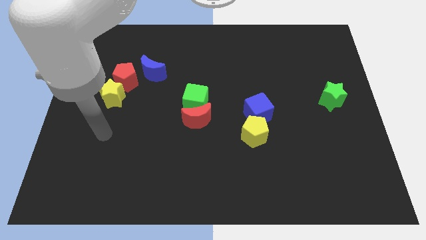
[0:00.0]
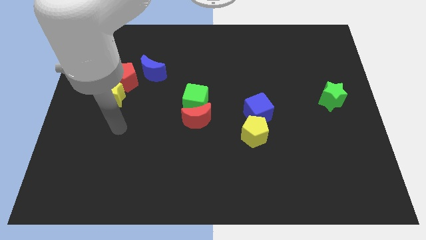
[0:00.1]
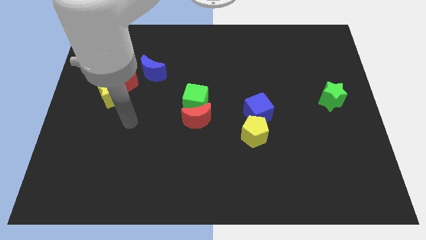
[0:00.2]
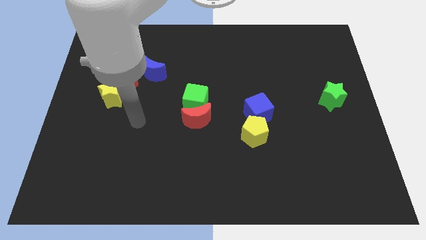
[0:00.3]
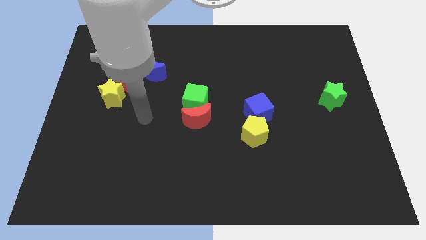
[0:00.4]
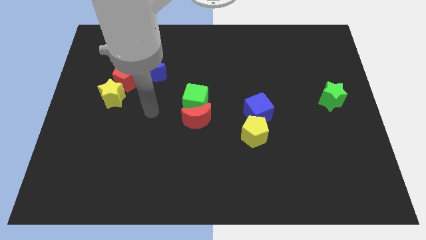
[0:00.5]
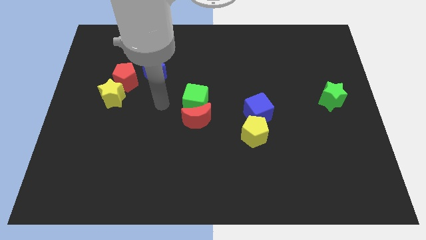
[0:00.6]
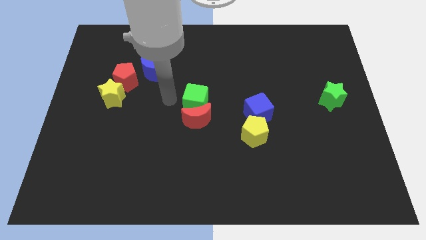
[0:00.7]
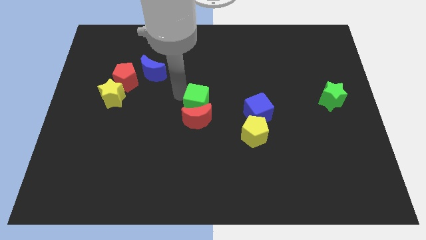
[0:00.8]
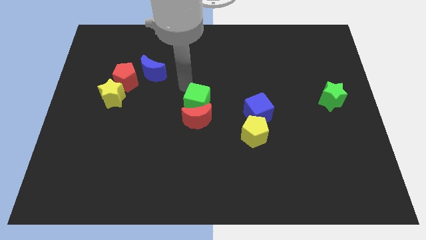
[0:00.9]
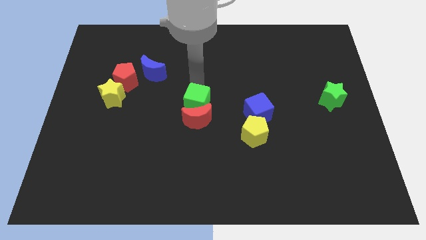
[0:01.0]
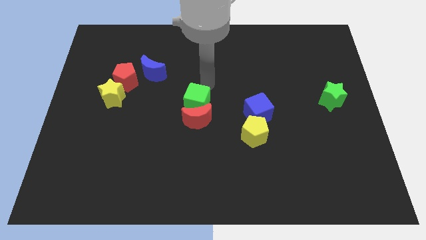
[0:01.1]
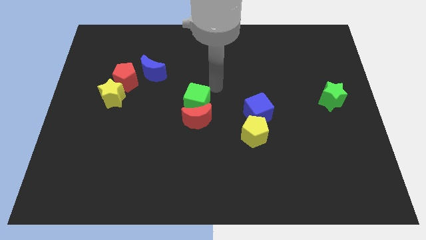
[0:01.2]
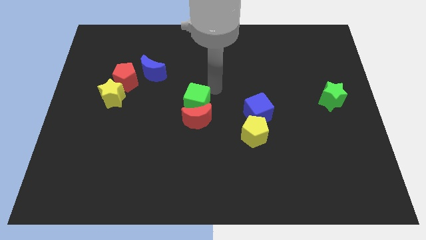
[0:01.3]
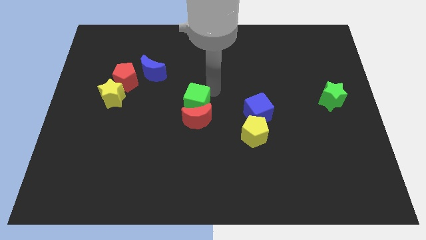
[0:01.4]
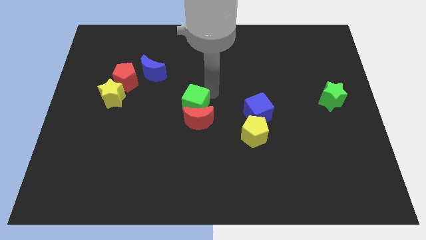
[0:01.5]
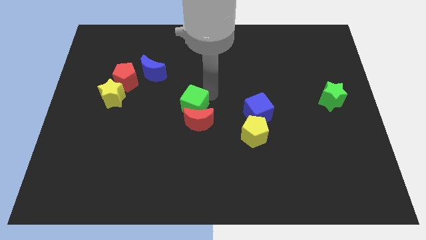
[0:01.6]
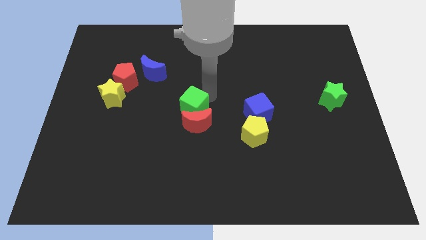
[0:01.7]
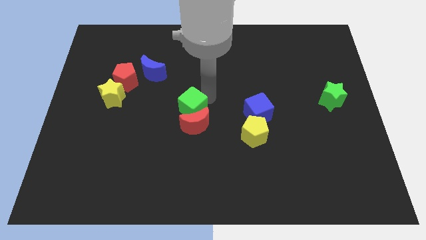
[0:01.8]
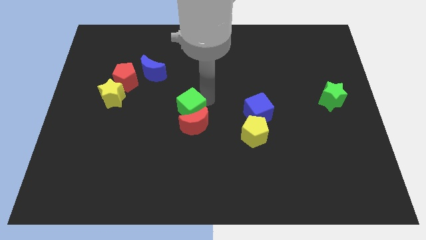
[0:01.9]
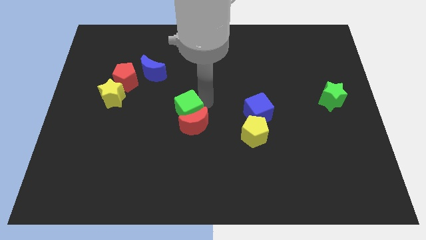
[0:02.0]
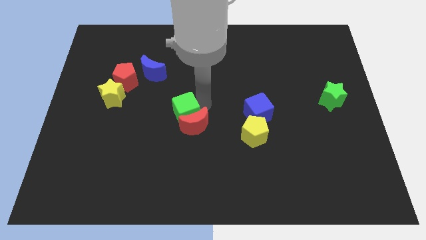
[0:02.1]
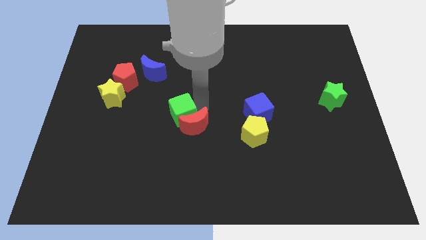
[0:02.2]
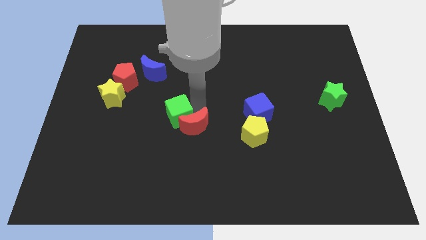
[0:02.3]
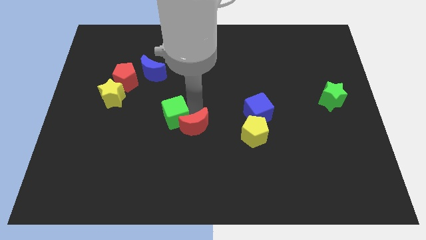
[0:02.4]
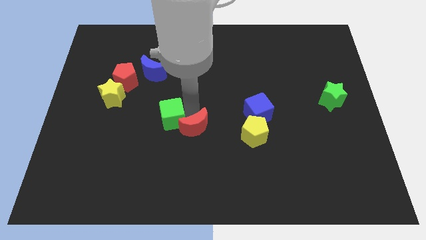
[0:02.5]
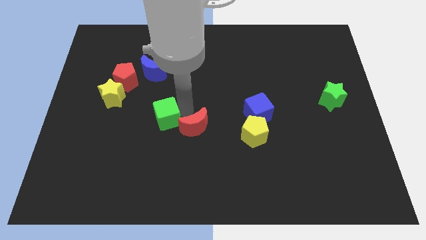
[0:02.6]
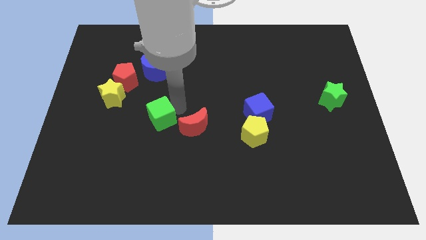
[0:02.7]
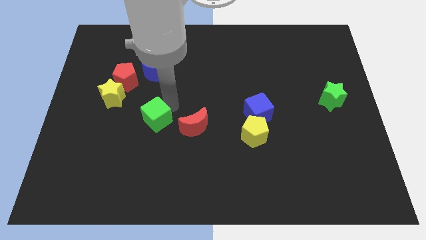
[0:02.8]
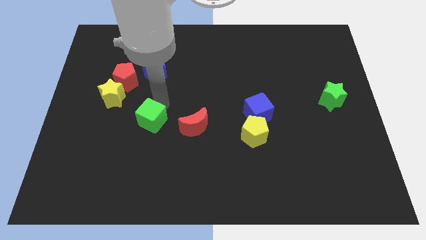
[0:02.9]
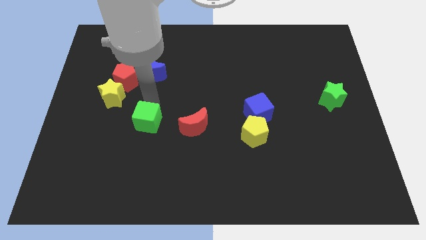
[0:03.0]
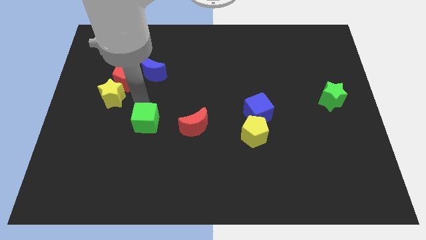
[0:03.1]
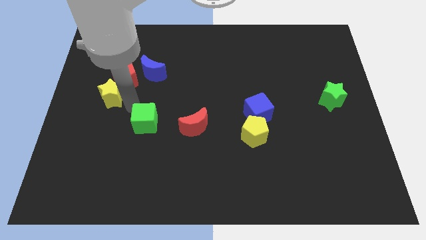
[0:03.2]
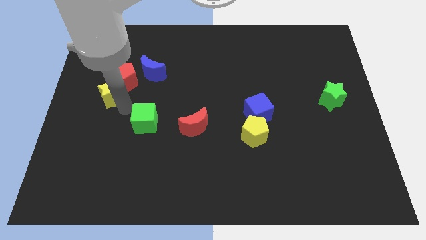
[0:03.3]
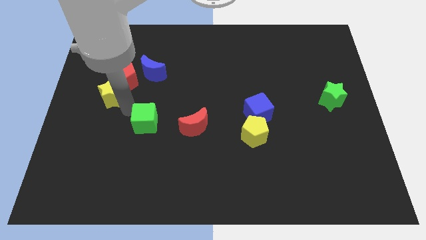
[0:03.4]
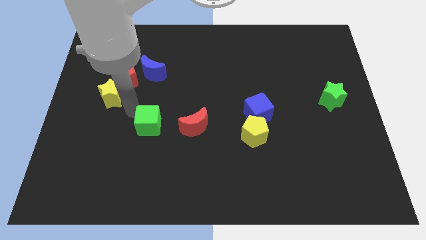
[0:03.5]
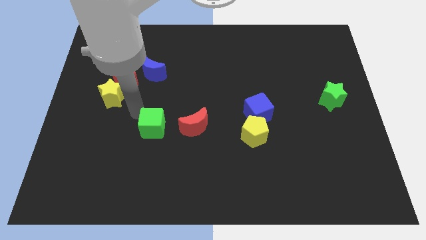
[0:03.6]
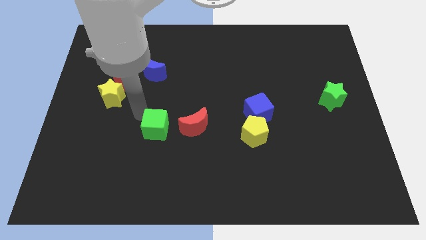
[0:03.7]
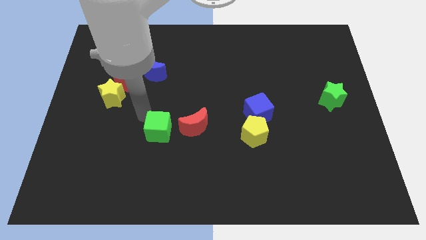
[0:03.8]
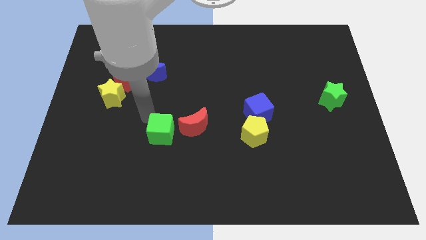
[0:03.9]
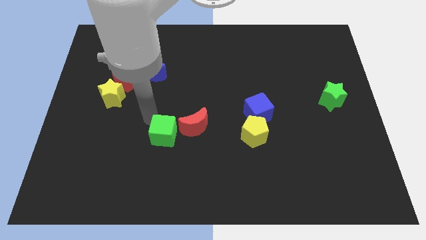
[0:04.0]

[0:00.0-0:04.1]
slide the green cube a little downwards

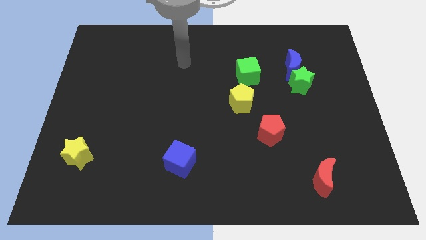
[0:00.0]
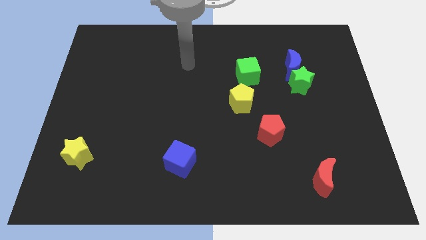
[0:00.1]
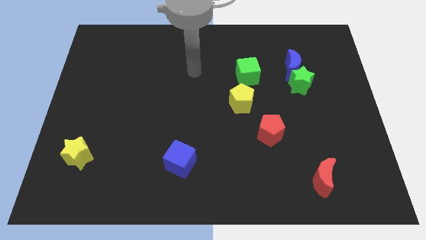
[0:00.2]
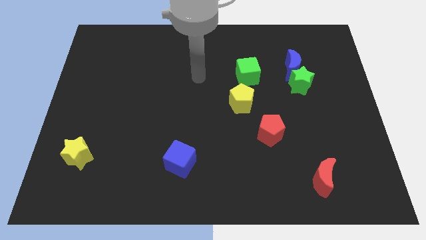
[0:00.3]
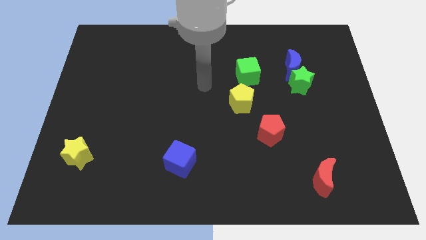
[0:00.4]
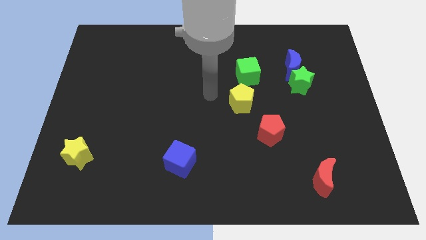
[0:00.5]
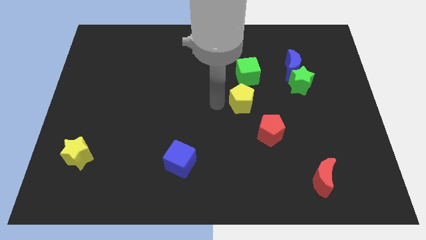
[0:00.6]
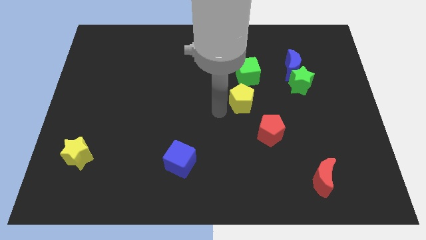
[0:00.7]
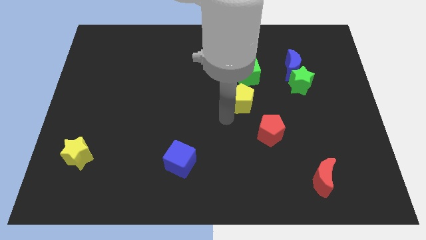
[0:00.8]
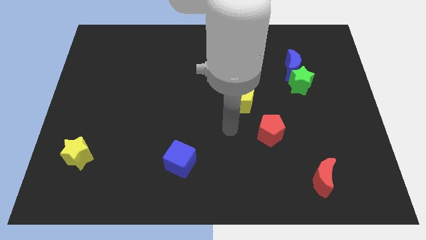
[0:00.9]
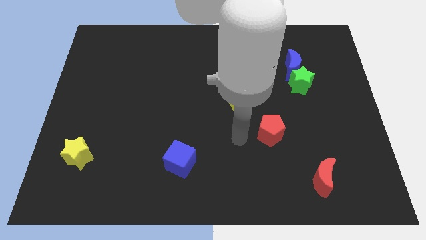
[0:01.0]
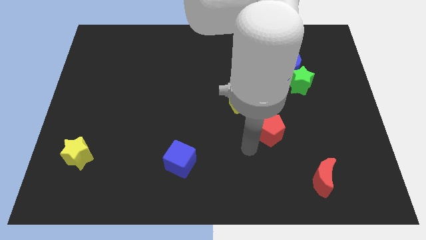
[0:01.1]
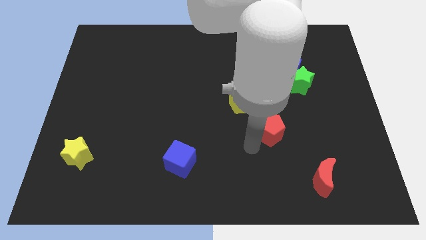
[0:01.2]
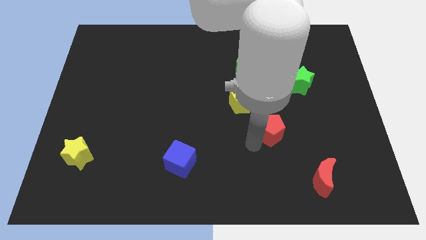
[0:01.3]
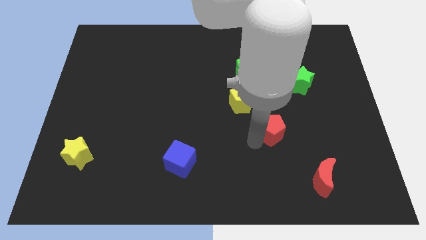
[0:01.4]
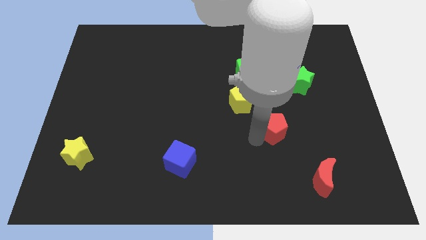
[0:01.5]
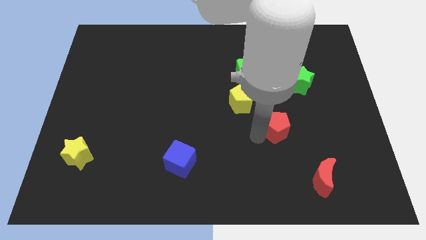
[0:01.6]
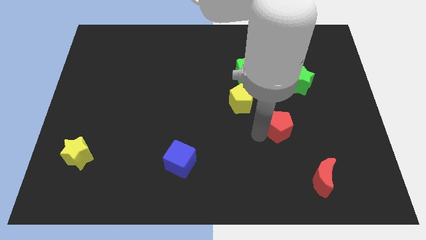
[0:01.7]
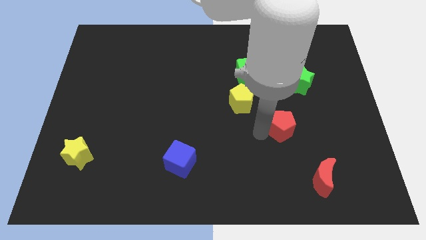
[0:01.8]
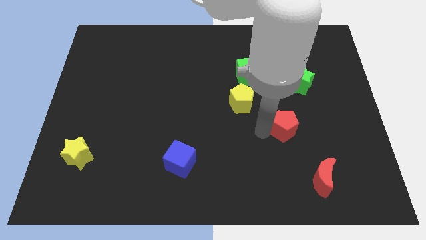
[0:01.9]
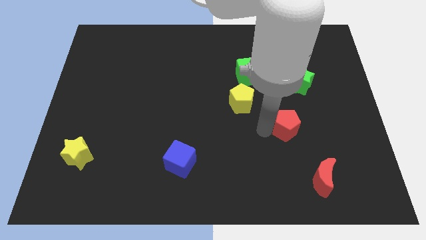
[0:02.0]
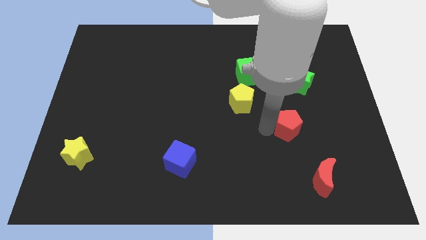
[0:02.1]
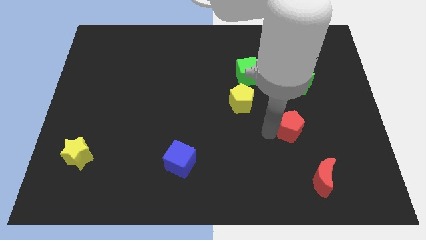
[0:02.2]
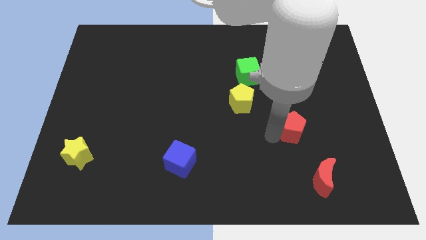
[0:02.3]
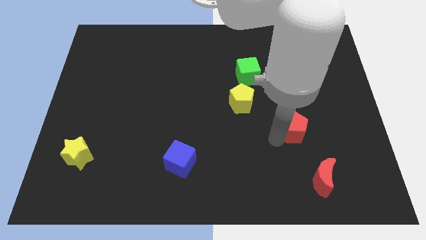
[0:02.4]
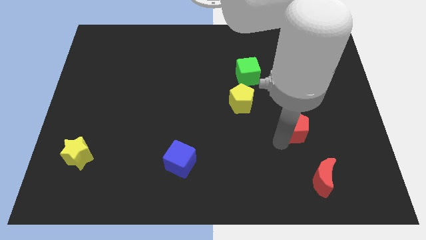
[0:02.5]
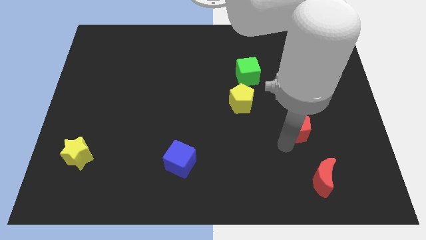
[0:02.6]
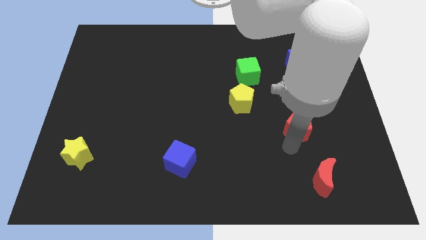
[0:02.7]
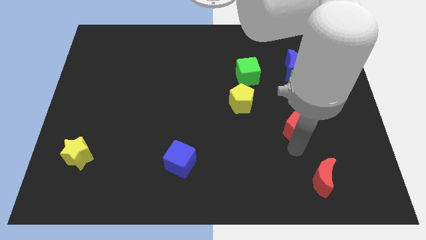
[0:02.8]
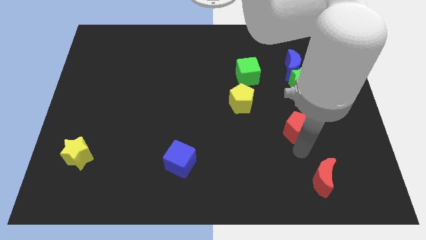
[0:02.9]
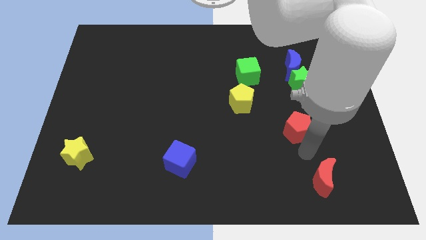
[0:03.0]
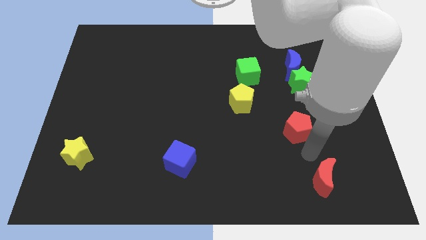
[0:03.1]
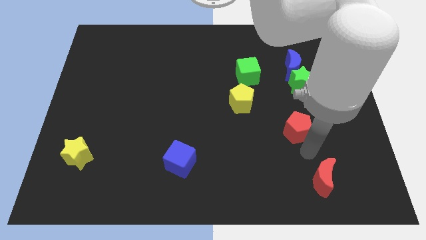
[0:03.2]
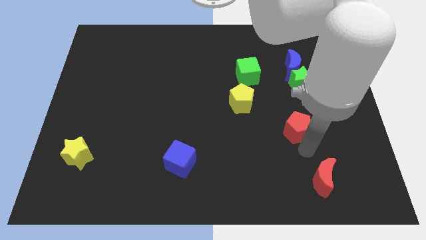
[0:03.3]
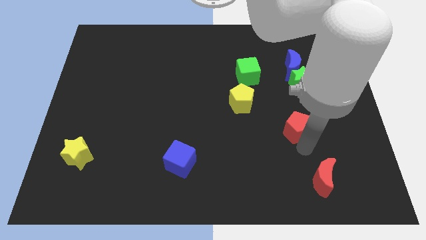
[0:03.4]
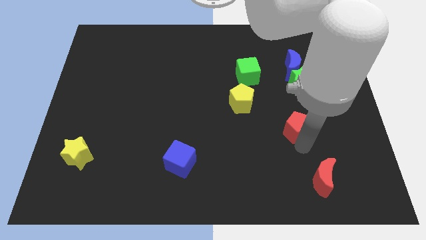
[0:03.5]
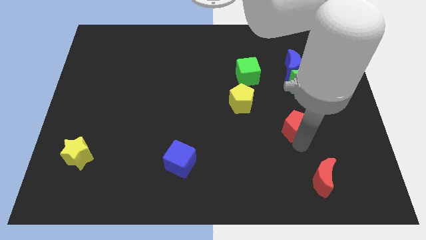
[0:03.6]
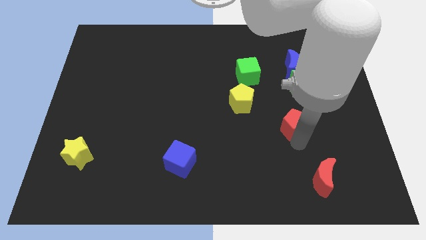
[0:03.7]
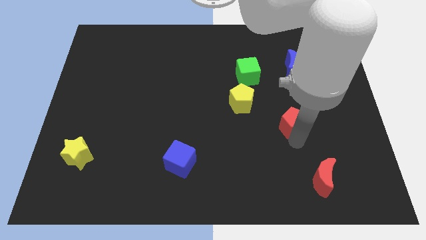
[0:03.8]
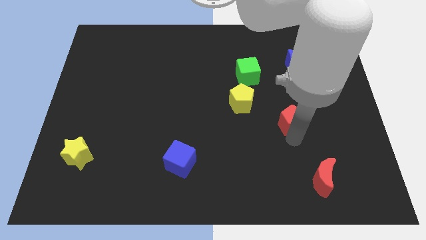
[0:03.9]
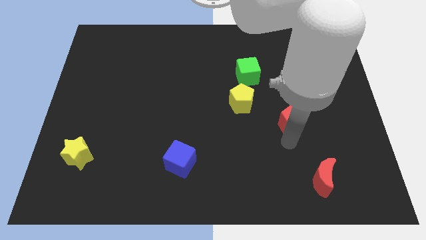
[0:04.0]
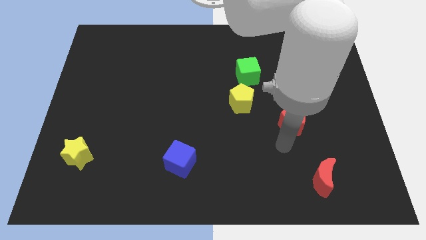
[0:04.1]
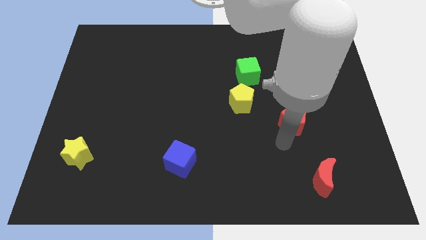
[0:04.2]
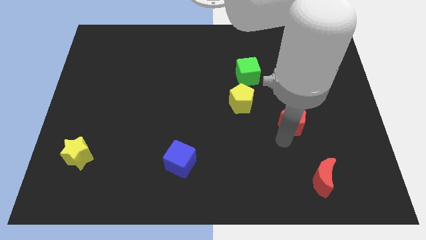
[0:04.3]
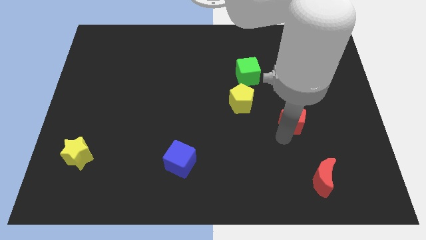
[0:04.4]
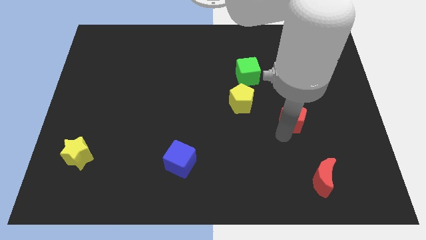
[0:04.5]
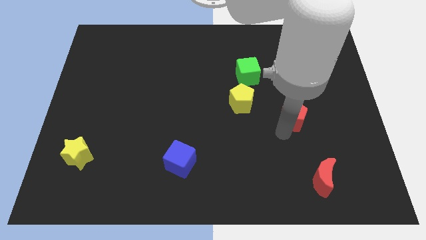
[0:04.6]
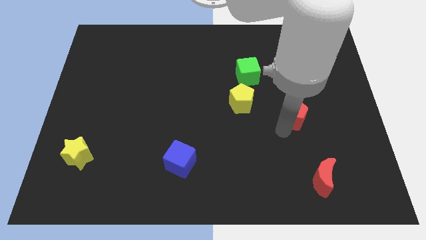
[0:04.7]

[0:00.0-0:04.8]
move the red pentagon up and to the right somewhat
